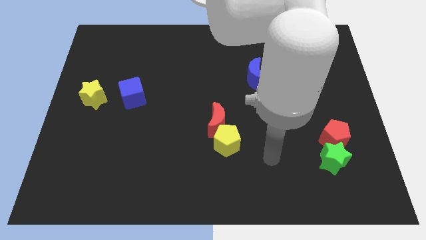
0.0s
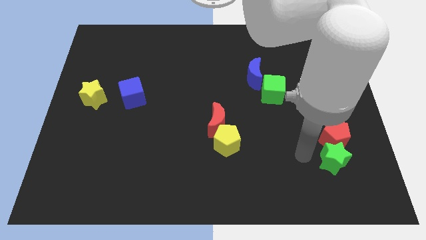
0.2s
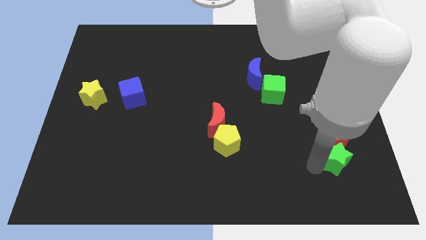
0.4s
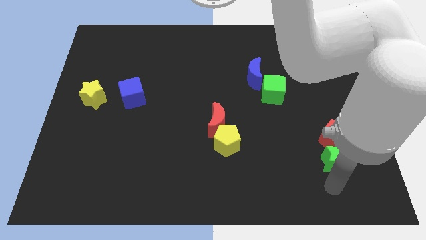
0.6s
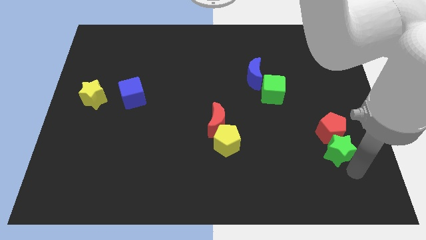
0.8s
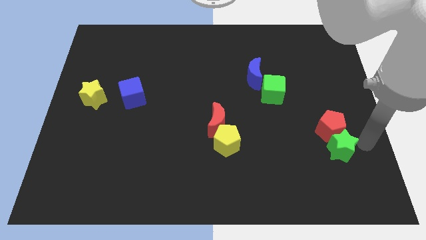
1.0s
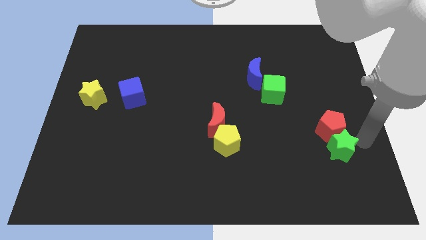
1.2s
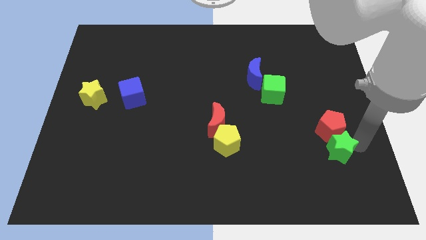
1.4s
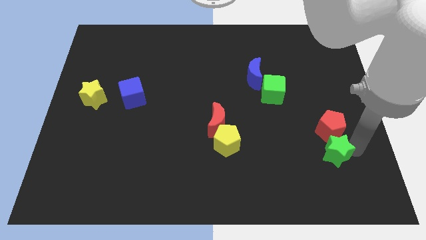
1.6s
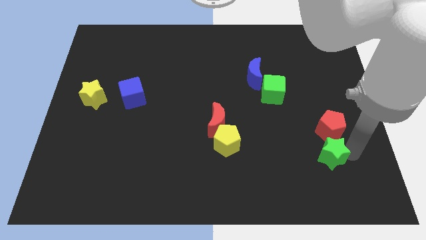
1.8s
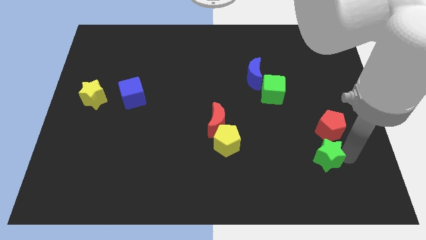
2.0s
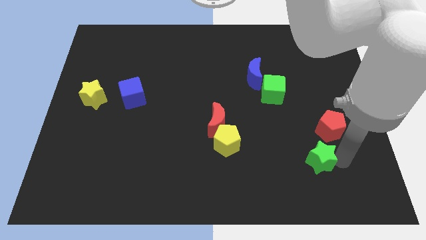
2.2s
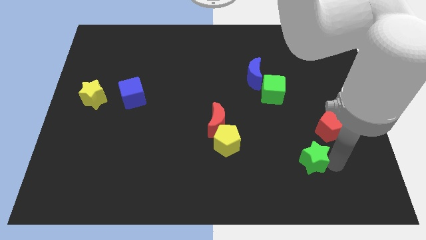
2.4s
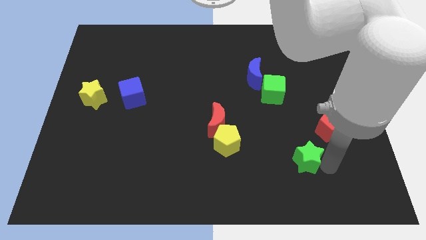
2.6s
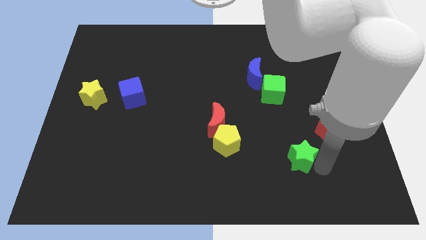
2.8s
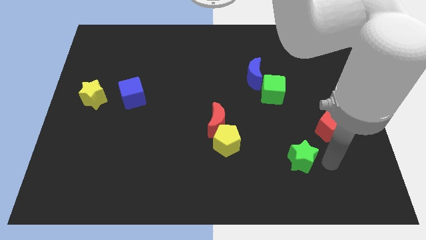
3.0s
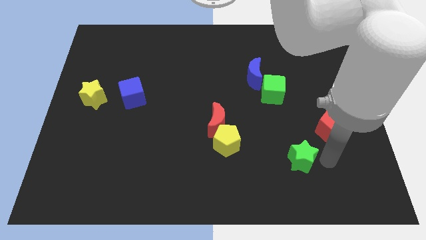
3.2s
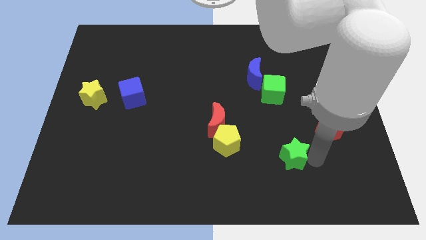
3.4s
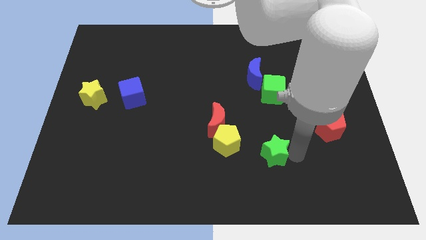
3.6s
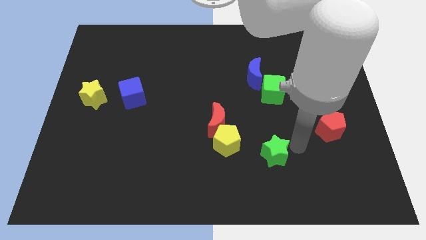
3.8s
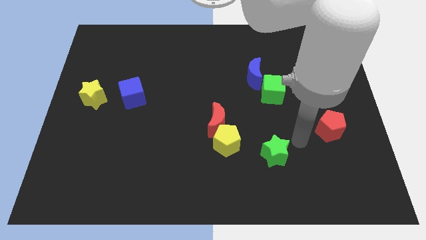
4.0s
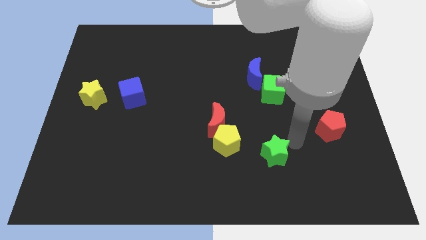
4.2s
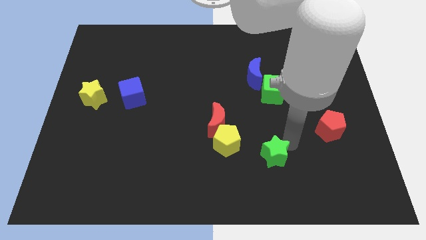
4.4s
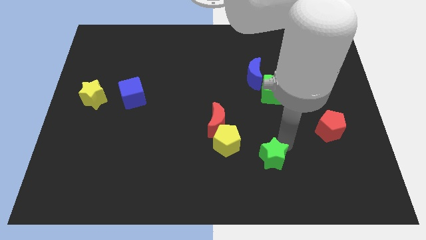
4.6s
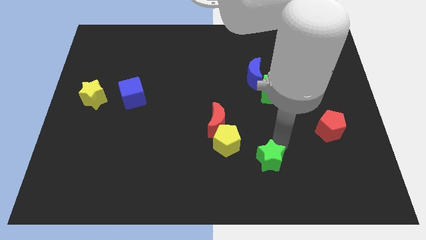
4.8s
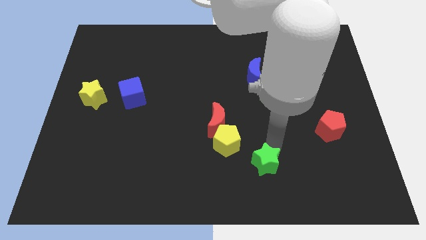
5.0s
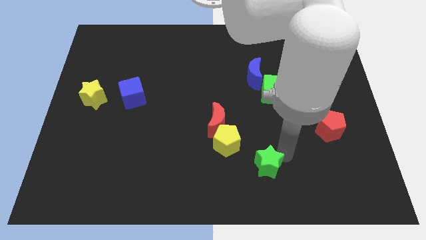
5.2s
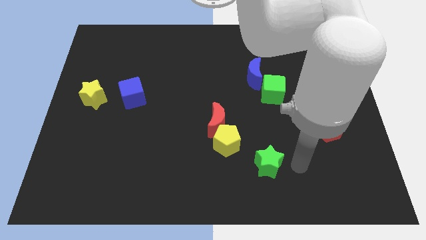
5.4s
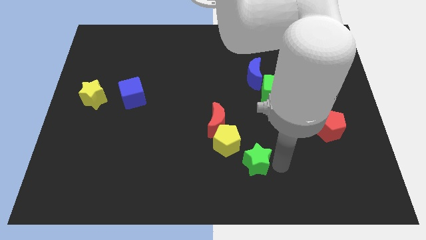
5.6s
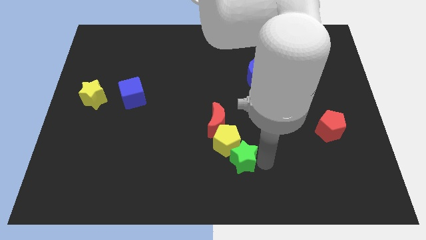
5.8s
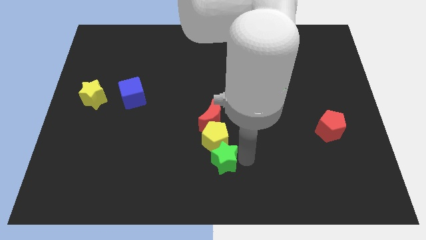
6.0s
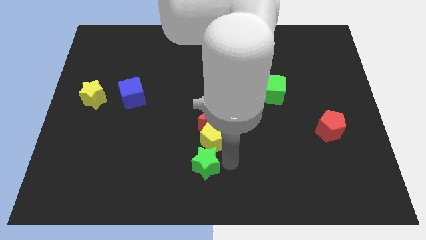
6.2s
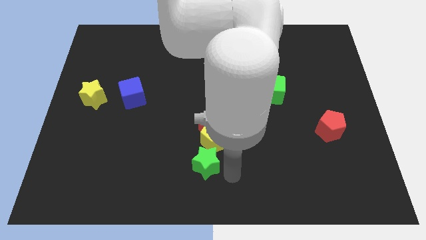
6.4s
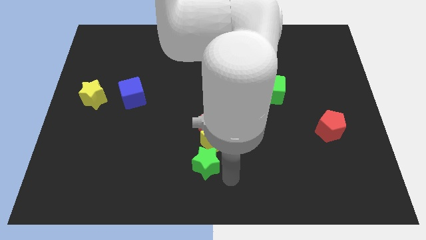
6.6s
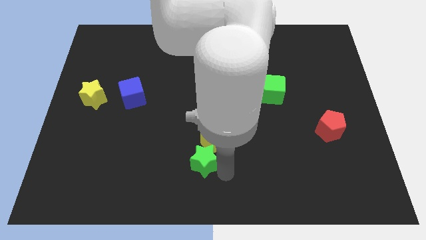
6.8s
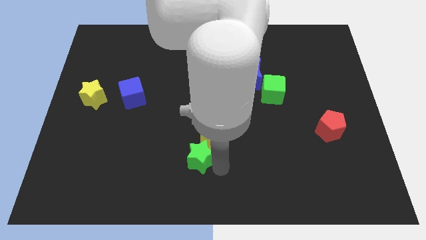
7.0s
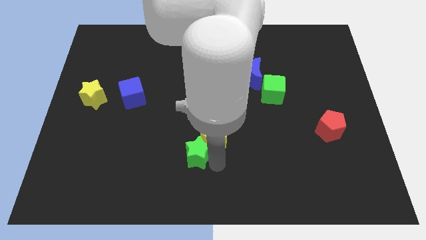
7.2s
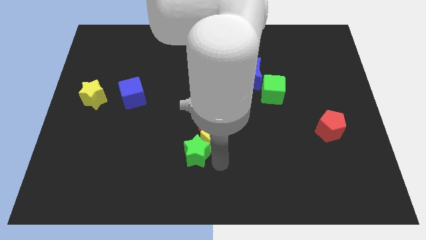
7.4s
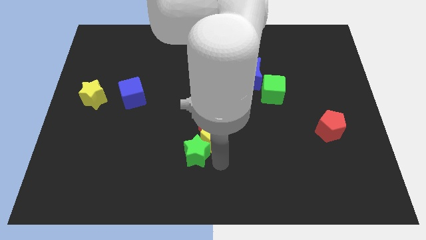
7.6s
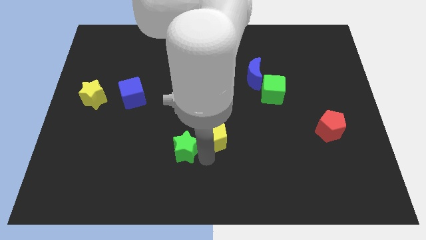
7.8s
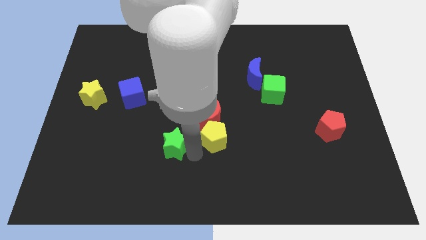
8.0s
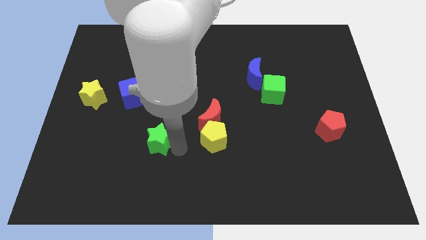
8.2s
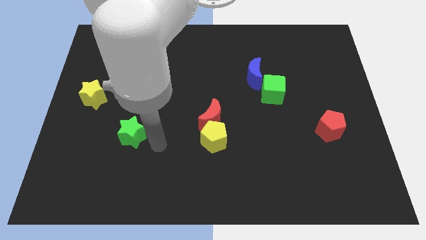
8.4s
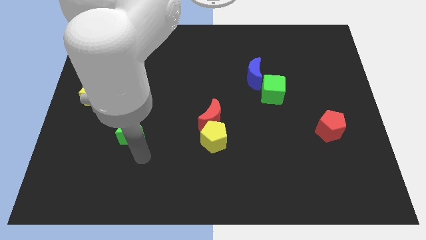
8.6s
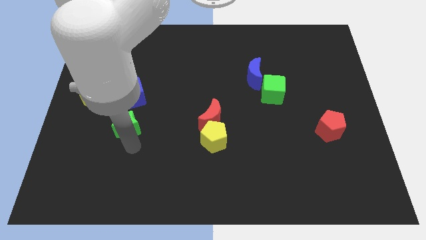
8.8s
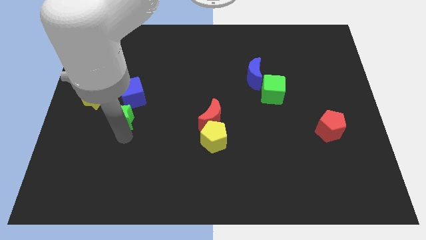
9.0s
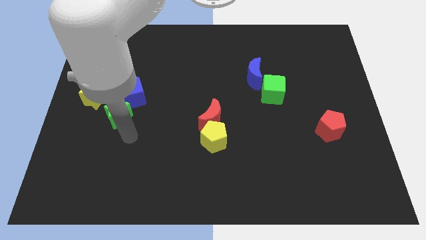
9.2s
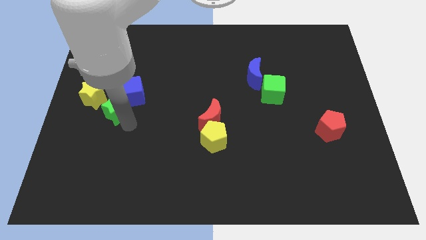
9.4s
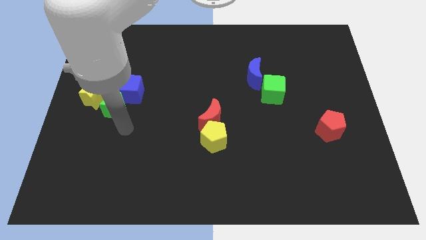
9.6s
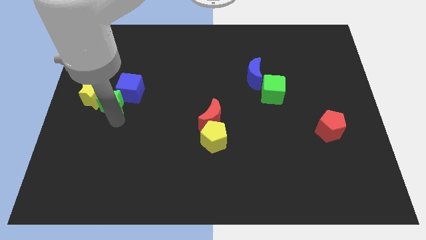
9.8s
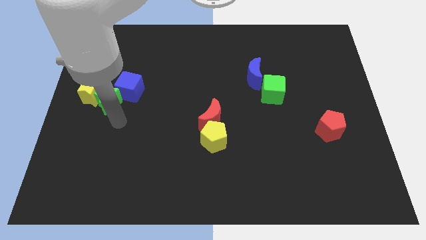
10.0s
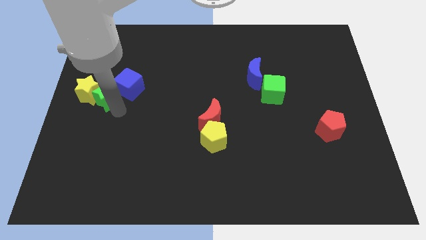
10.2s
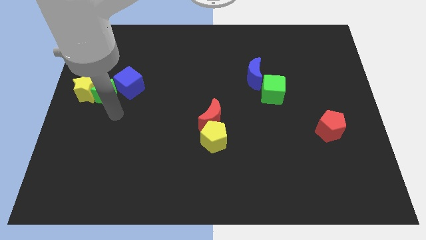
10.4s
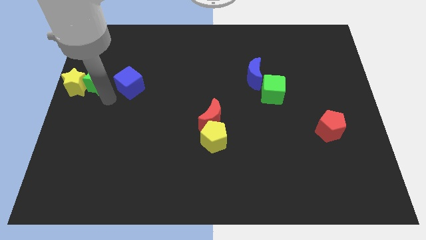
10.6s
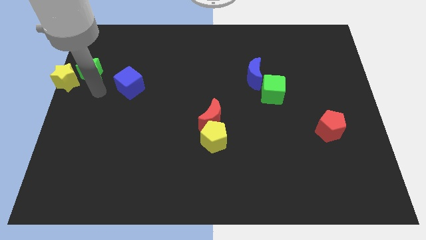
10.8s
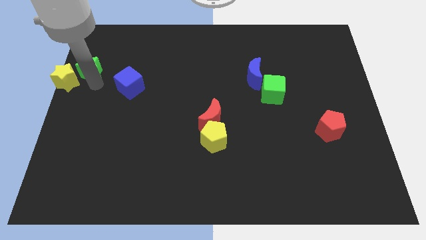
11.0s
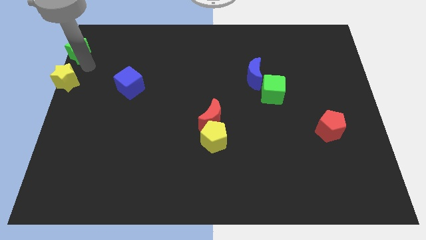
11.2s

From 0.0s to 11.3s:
put the green star to the upper left corner
